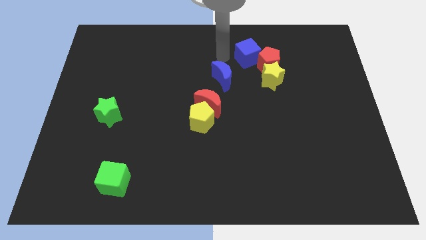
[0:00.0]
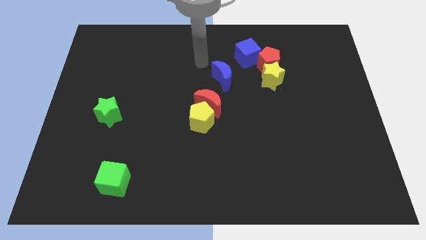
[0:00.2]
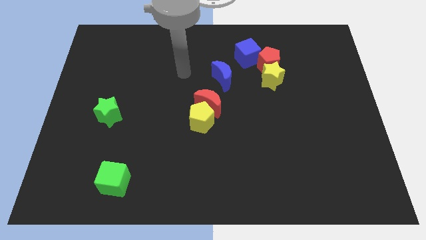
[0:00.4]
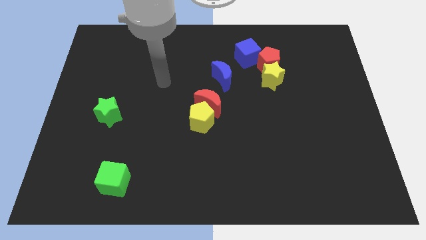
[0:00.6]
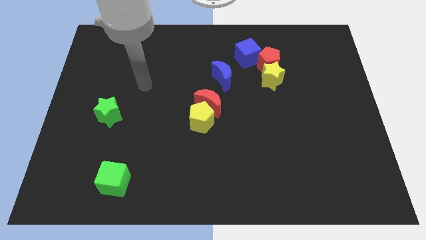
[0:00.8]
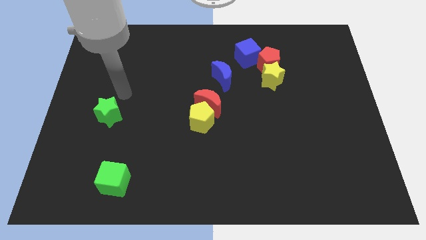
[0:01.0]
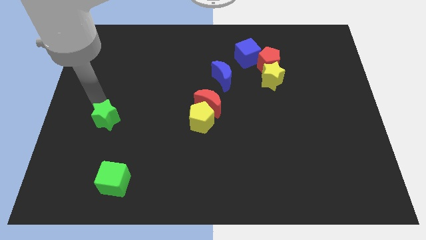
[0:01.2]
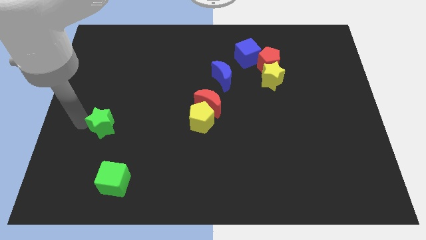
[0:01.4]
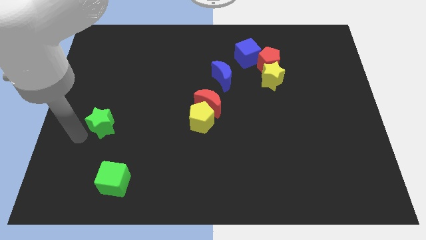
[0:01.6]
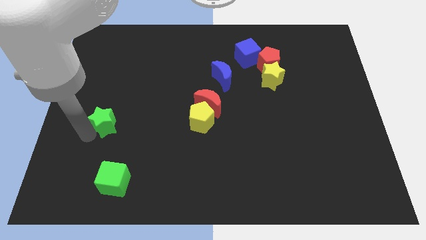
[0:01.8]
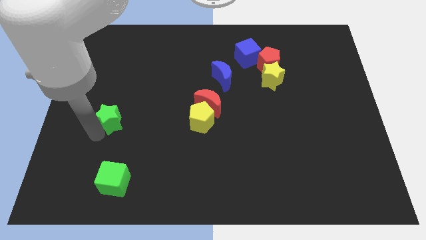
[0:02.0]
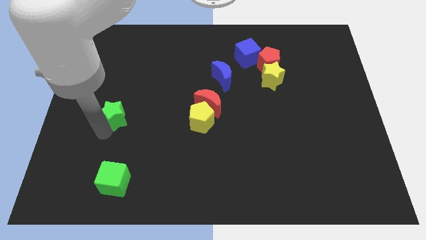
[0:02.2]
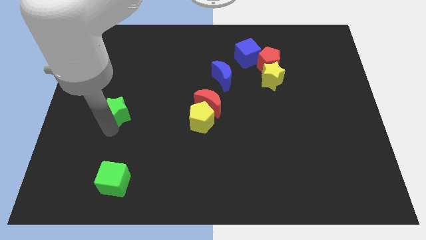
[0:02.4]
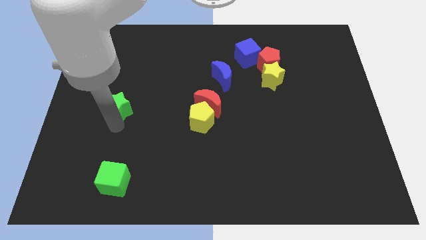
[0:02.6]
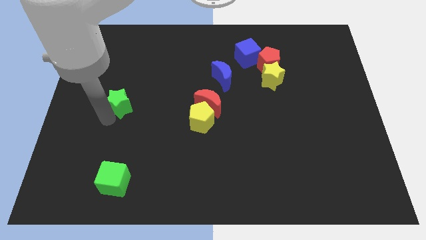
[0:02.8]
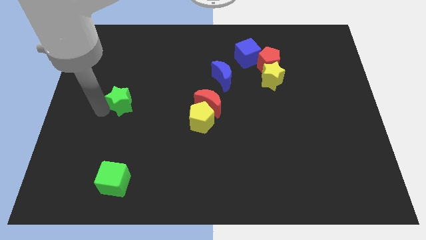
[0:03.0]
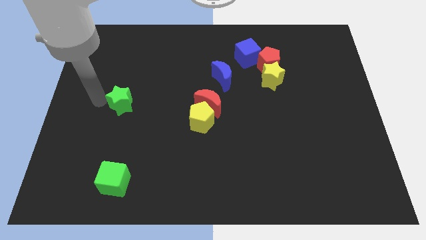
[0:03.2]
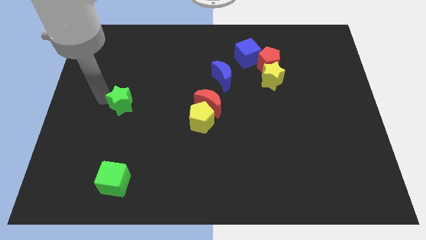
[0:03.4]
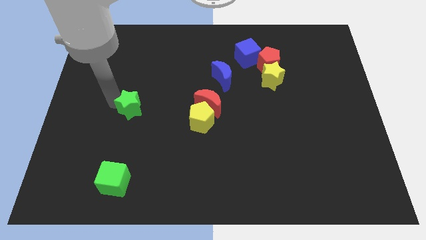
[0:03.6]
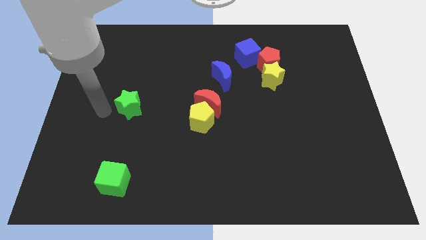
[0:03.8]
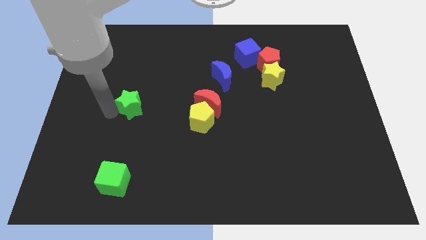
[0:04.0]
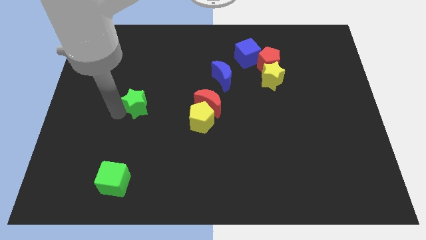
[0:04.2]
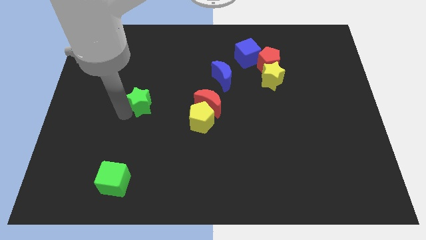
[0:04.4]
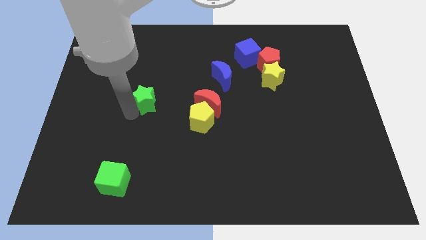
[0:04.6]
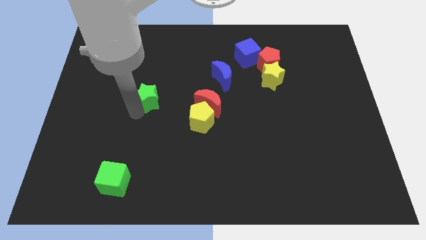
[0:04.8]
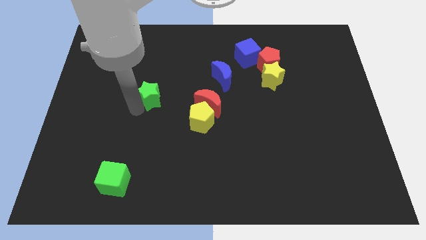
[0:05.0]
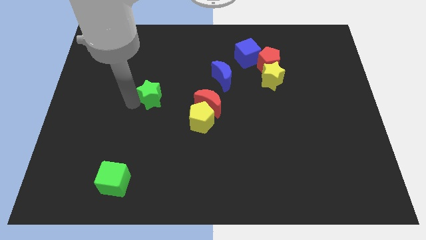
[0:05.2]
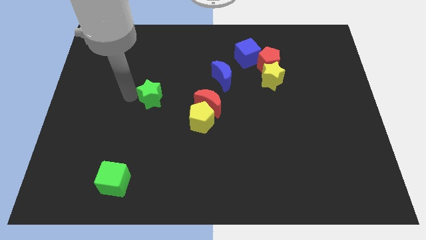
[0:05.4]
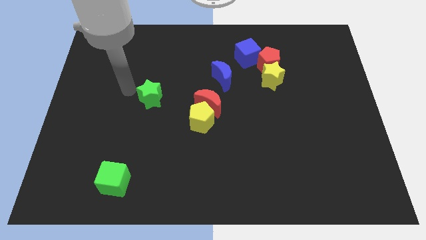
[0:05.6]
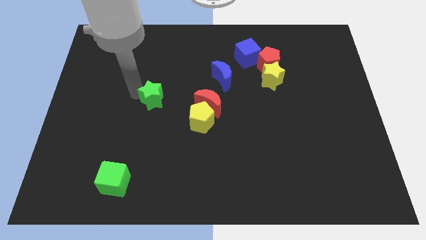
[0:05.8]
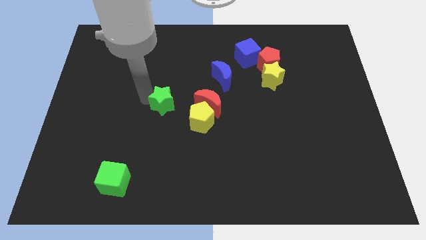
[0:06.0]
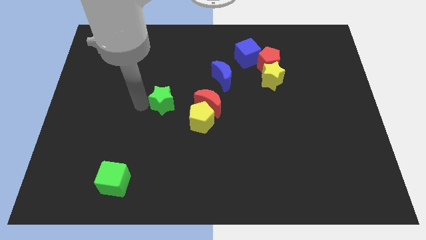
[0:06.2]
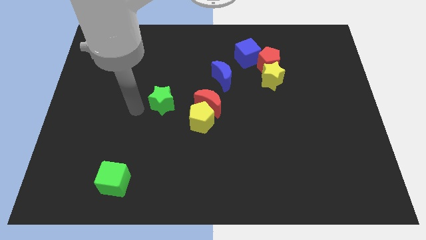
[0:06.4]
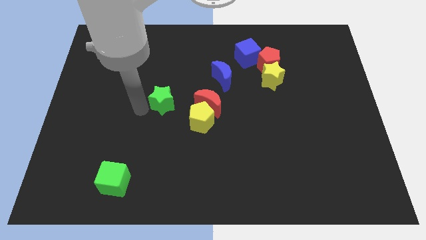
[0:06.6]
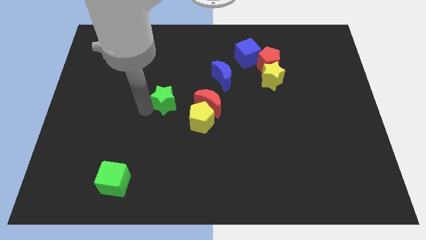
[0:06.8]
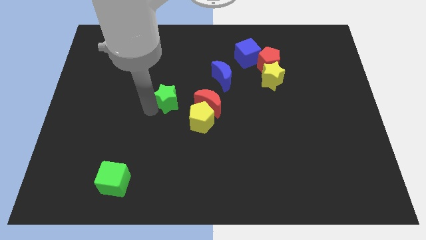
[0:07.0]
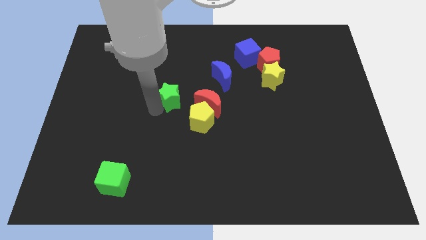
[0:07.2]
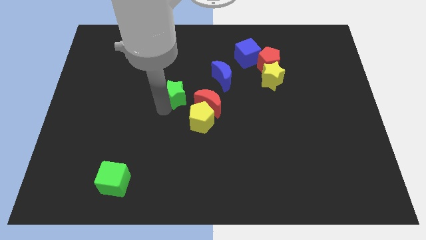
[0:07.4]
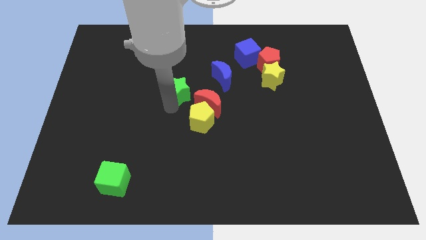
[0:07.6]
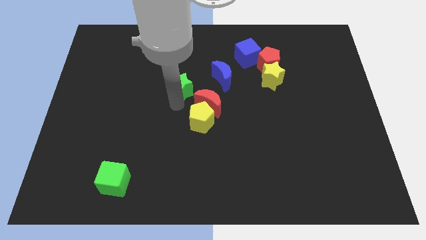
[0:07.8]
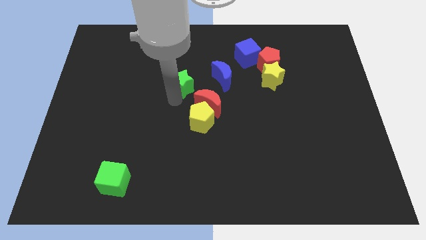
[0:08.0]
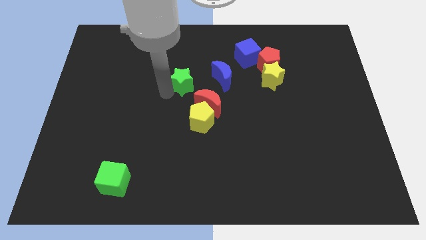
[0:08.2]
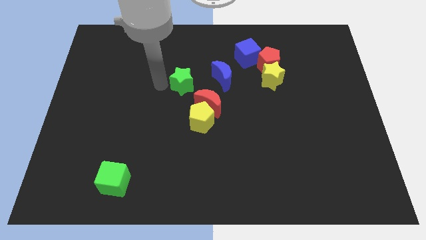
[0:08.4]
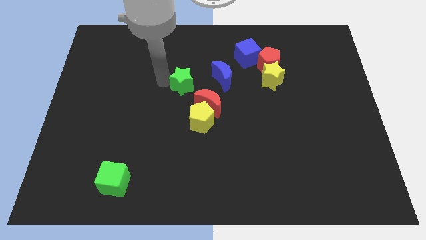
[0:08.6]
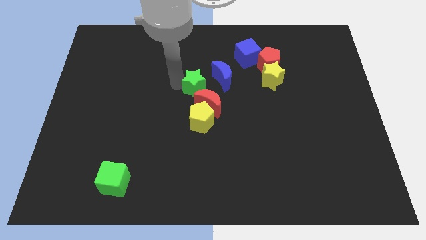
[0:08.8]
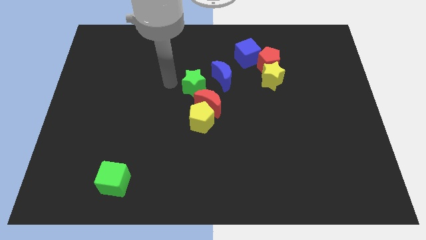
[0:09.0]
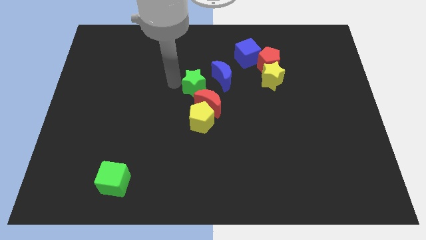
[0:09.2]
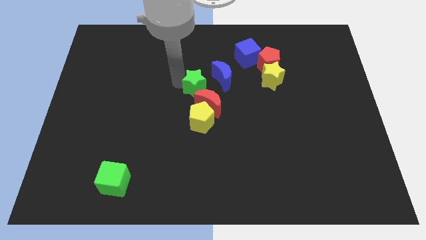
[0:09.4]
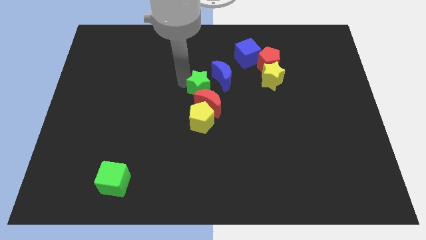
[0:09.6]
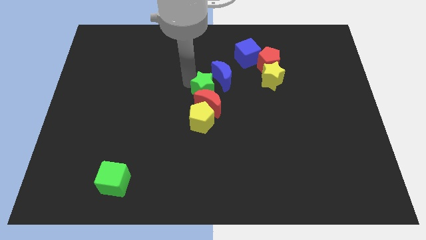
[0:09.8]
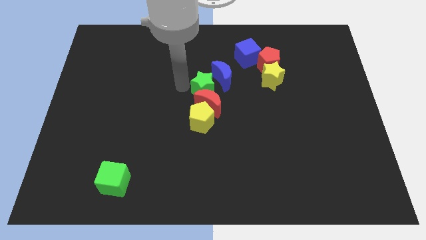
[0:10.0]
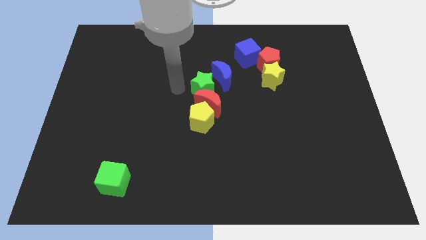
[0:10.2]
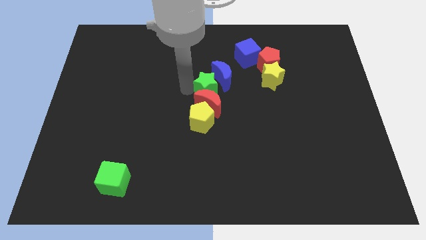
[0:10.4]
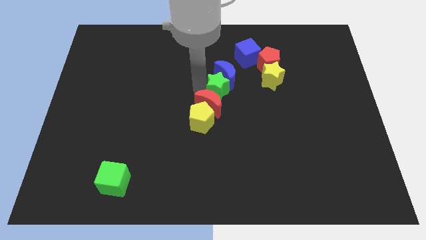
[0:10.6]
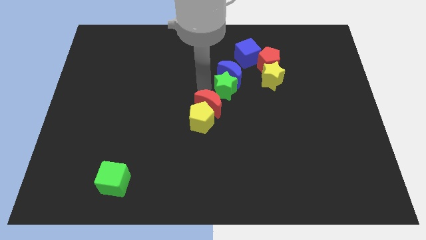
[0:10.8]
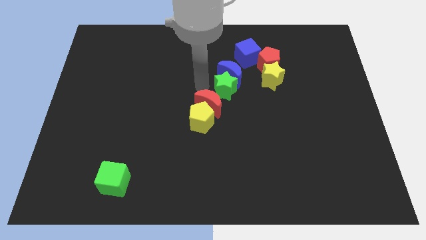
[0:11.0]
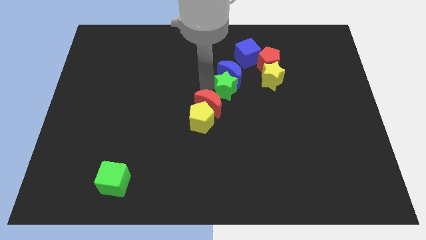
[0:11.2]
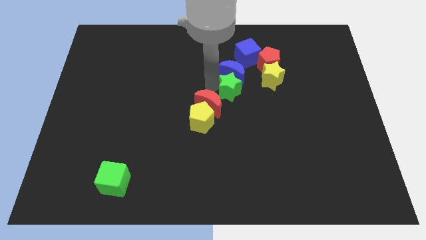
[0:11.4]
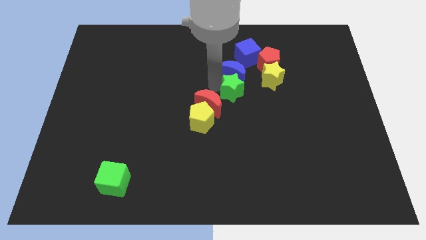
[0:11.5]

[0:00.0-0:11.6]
move the green star to the bottom left side of the yellow star
